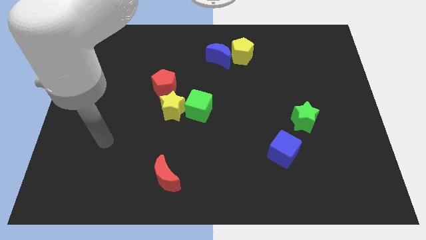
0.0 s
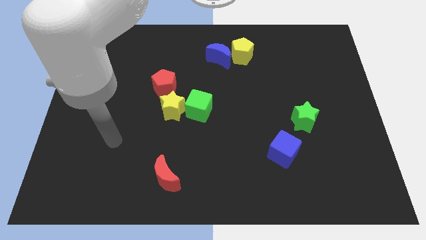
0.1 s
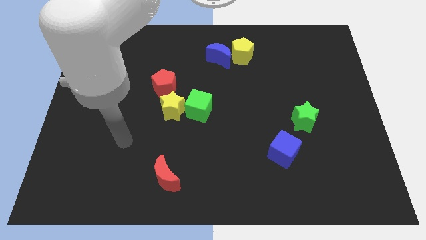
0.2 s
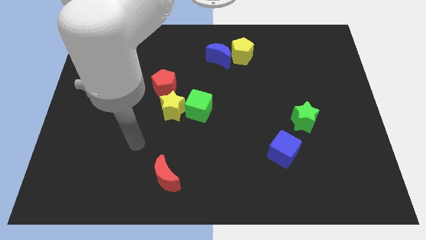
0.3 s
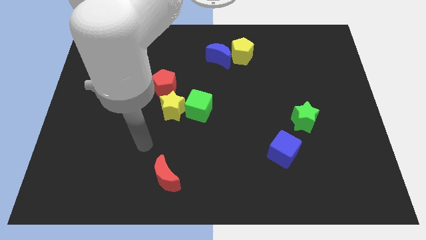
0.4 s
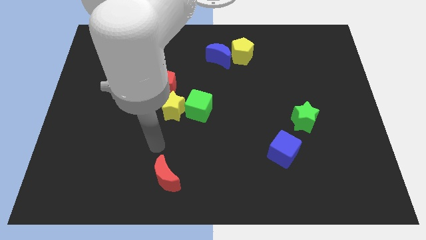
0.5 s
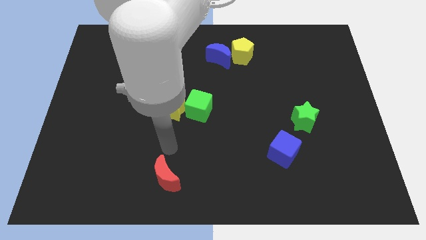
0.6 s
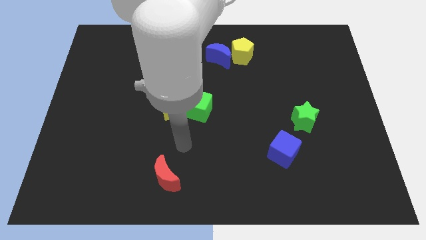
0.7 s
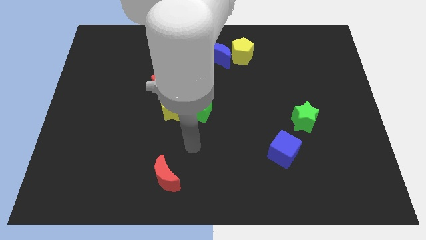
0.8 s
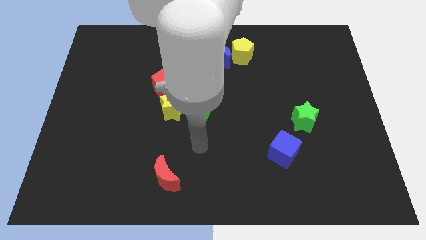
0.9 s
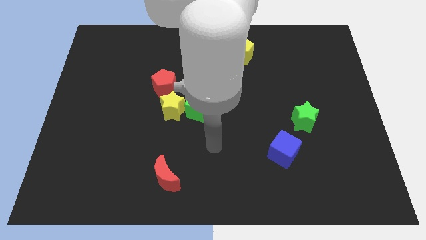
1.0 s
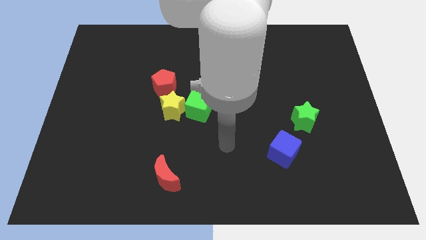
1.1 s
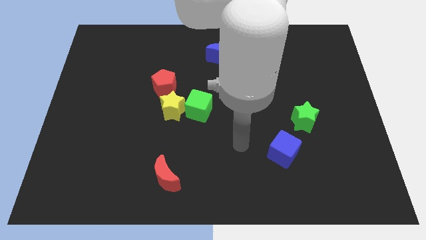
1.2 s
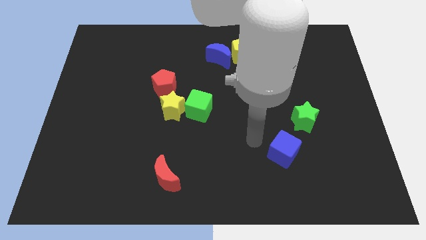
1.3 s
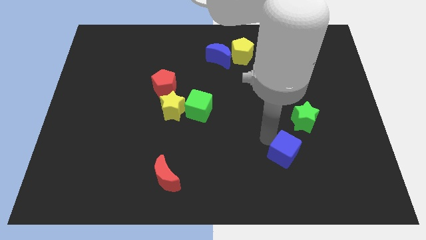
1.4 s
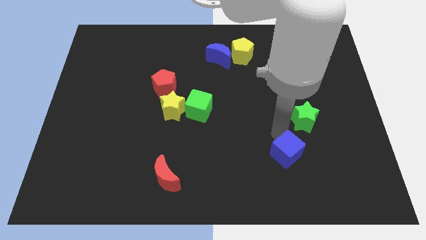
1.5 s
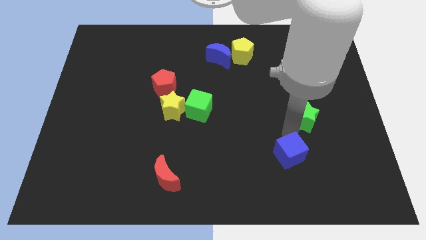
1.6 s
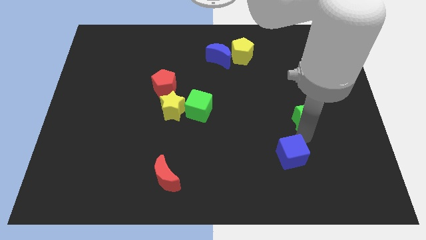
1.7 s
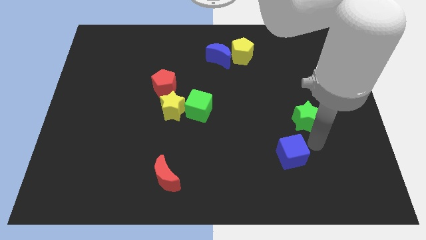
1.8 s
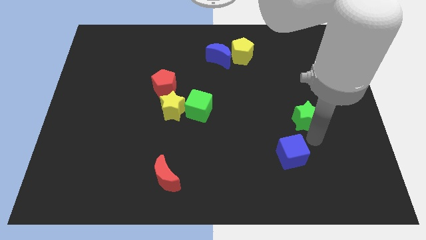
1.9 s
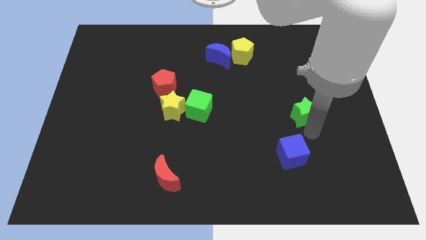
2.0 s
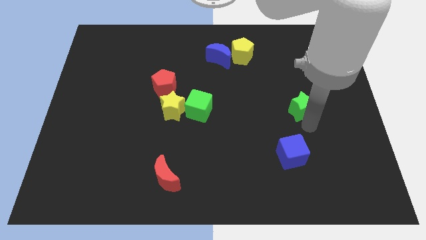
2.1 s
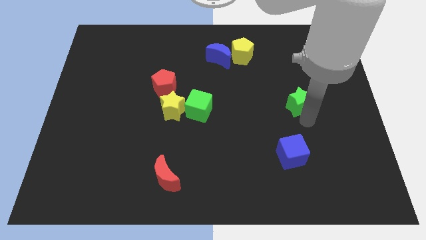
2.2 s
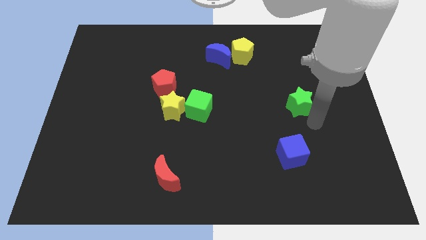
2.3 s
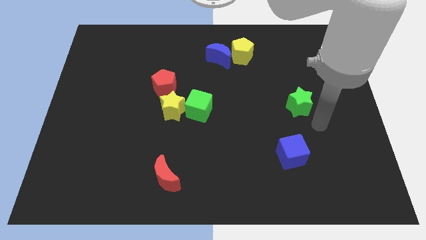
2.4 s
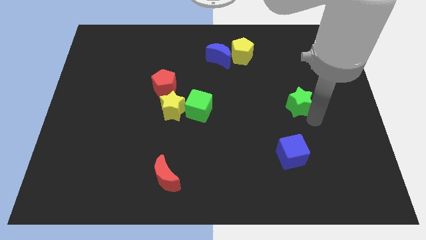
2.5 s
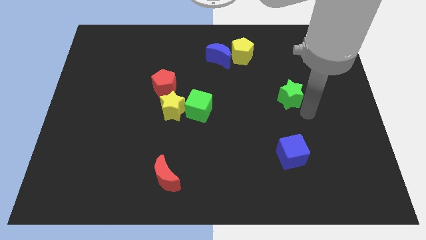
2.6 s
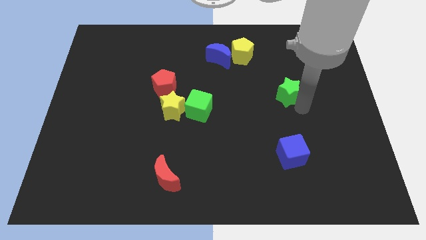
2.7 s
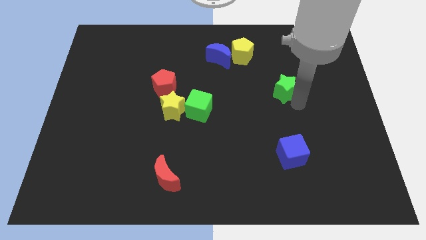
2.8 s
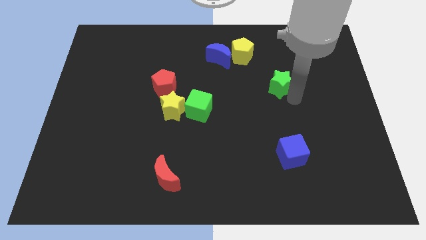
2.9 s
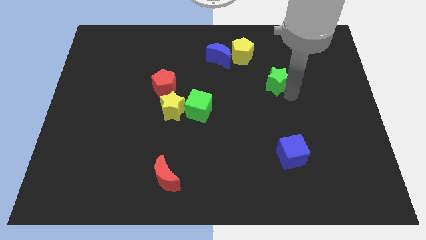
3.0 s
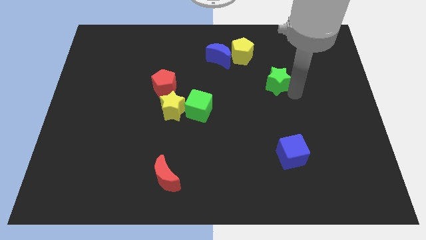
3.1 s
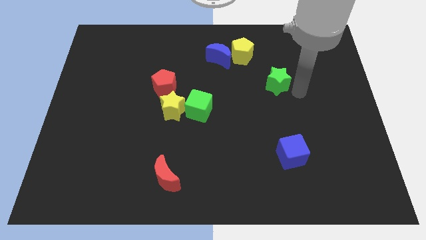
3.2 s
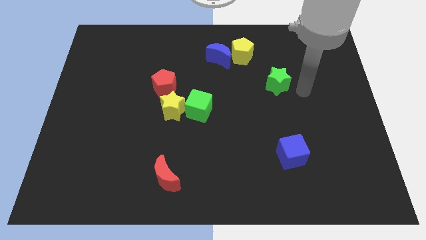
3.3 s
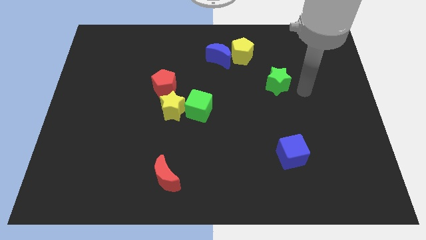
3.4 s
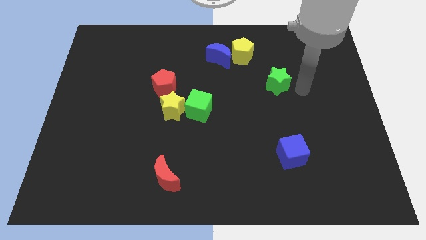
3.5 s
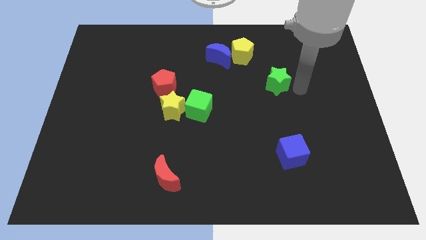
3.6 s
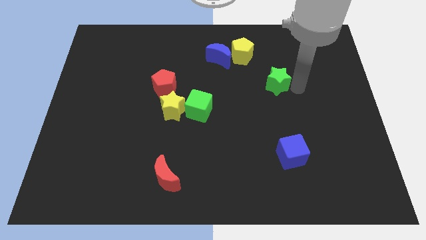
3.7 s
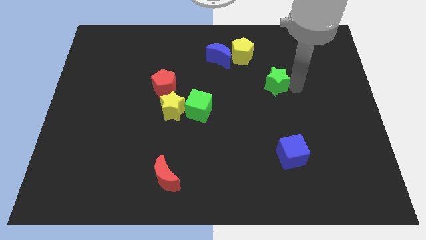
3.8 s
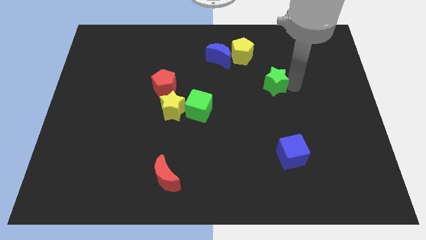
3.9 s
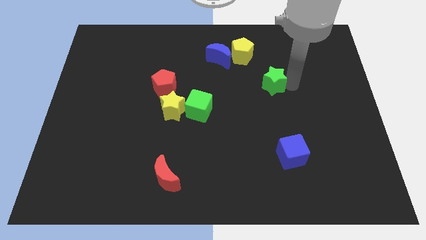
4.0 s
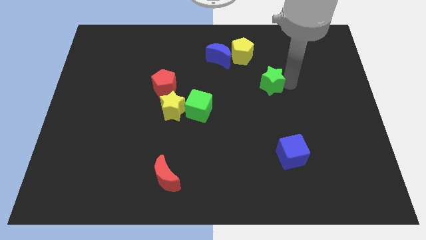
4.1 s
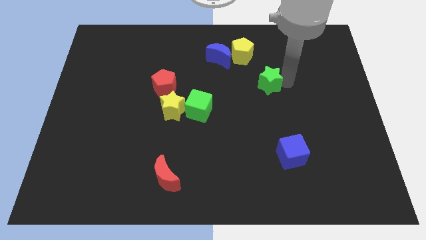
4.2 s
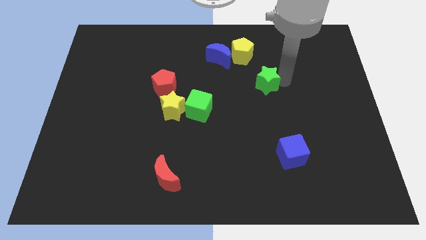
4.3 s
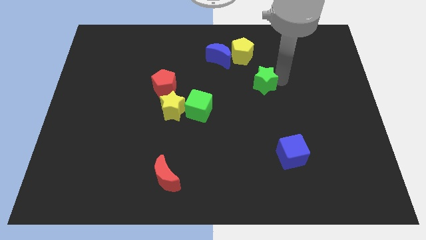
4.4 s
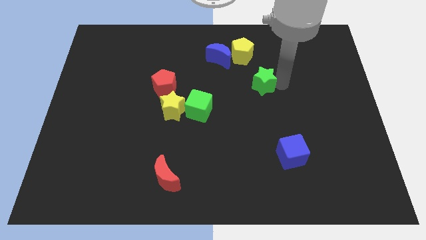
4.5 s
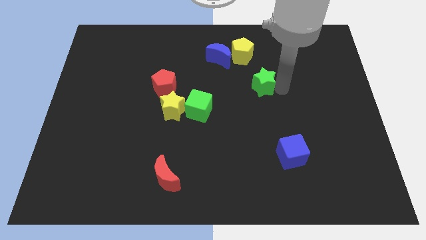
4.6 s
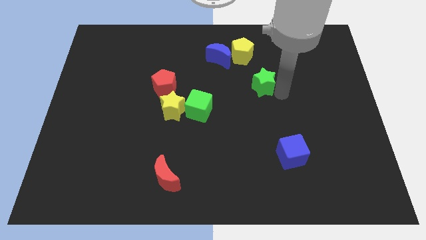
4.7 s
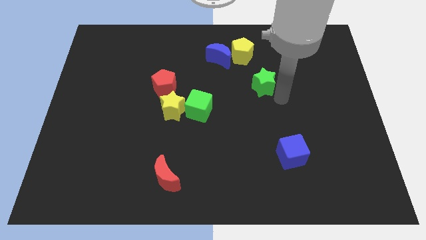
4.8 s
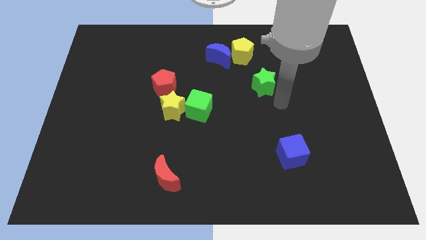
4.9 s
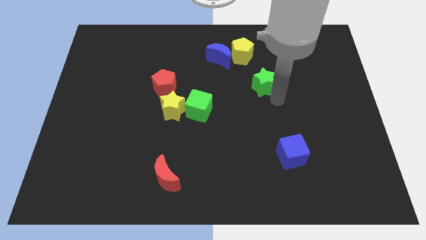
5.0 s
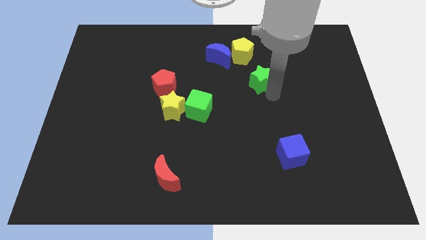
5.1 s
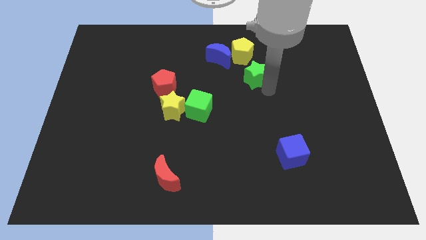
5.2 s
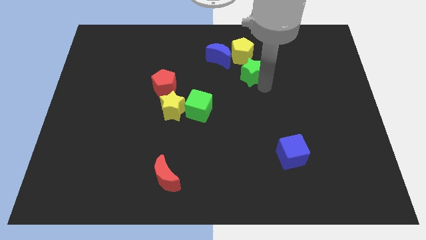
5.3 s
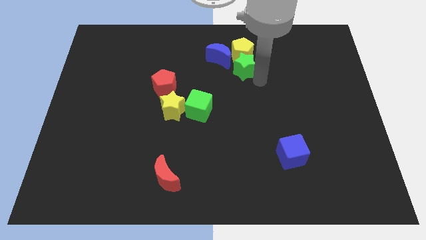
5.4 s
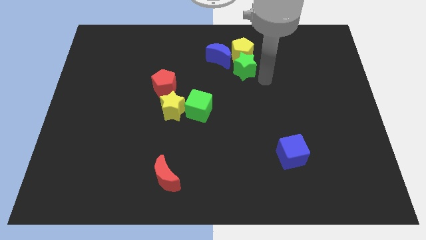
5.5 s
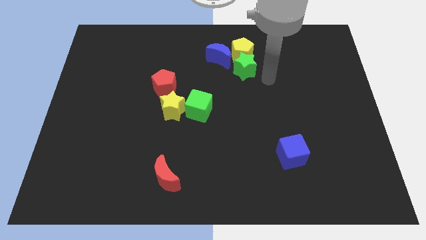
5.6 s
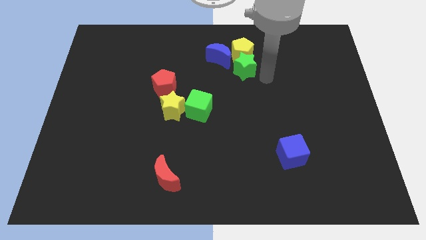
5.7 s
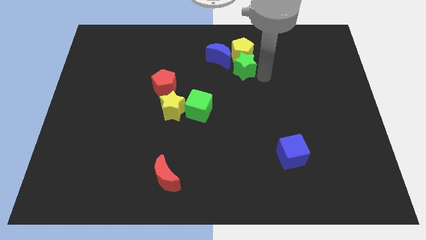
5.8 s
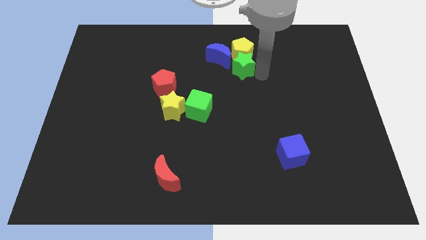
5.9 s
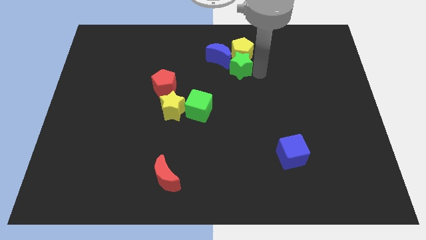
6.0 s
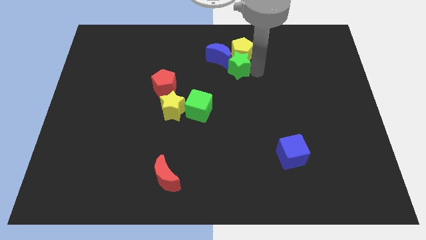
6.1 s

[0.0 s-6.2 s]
move the green star next to the blue moon

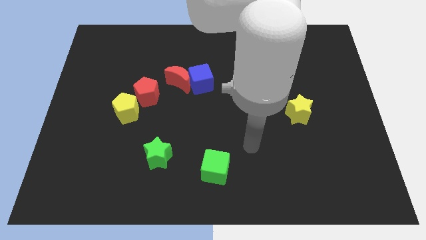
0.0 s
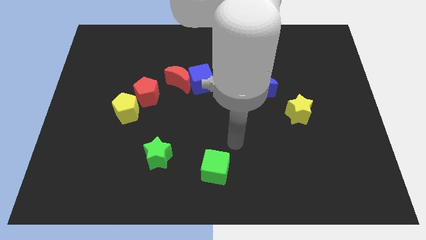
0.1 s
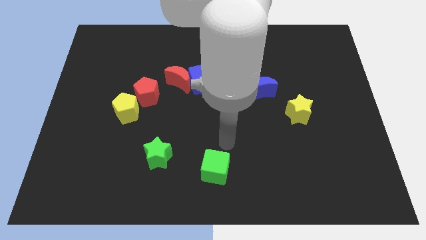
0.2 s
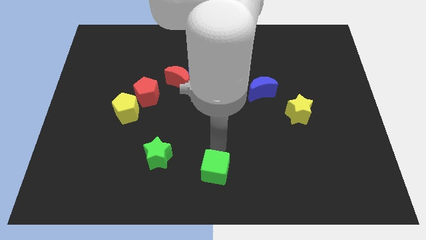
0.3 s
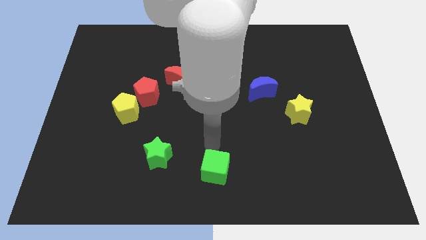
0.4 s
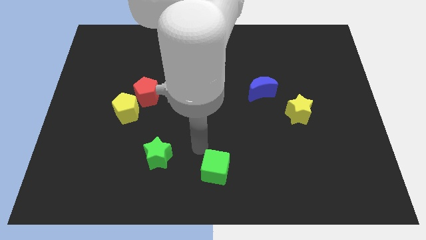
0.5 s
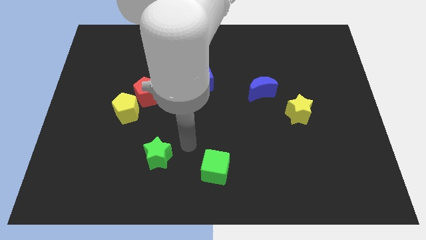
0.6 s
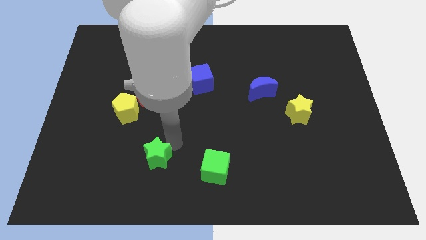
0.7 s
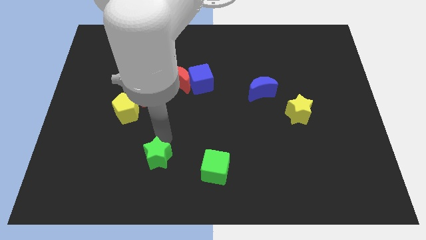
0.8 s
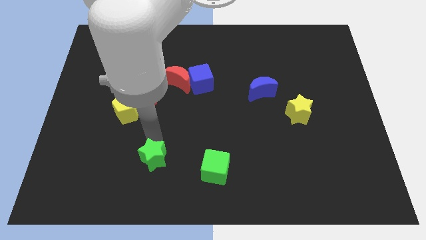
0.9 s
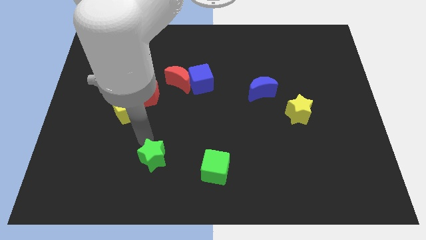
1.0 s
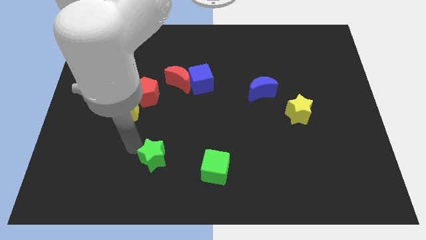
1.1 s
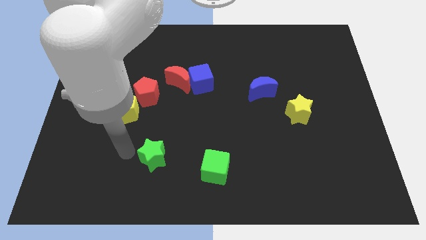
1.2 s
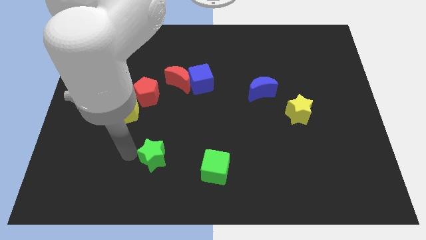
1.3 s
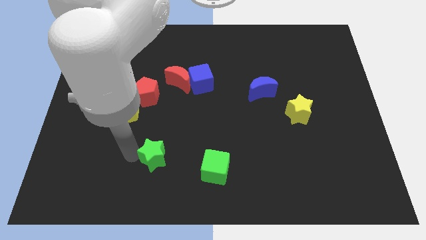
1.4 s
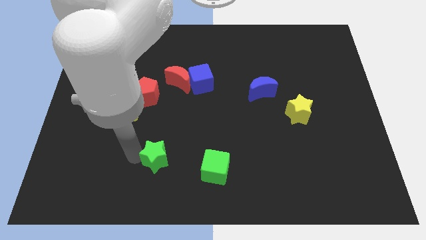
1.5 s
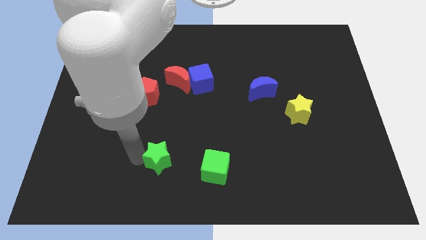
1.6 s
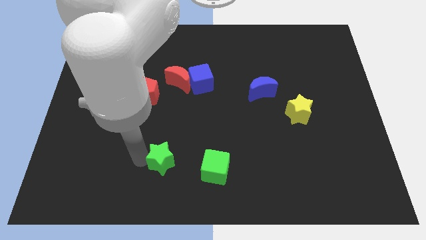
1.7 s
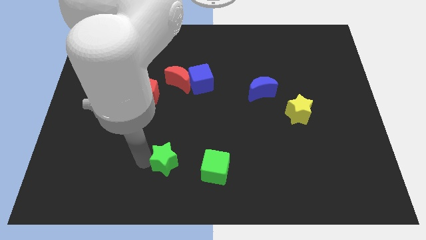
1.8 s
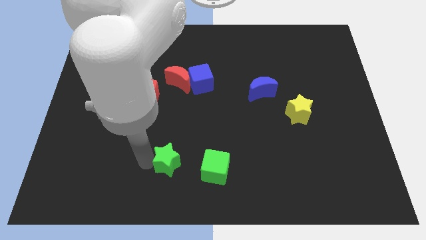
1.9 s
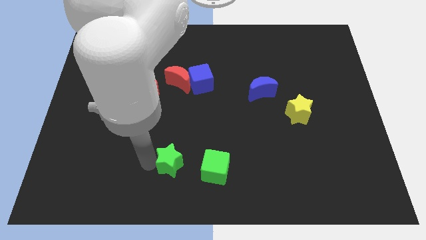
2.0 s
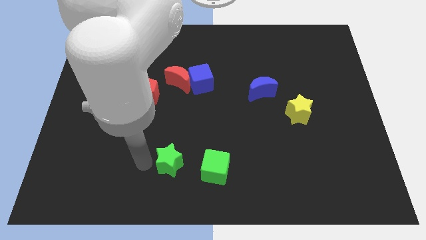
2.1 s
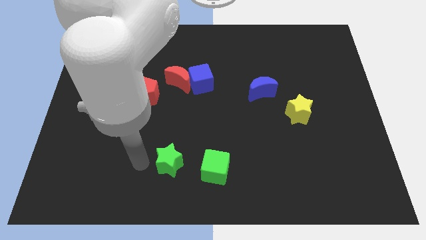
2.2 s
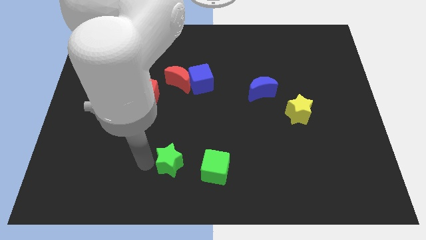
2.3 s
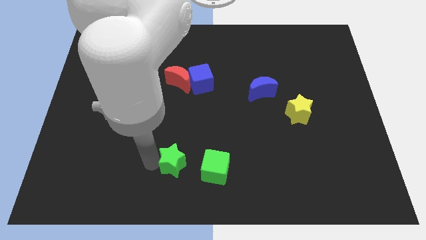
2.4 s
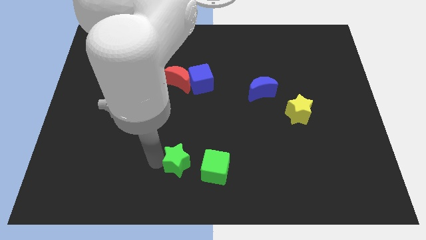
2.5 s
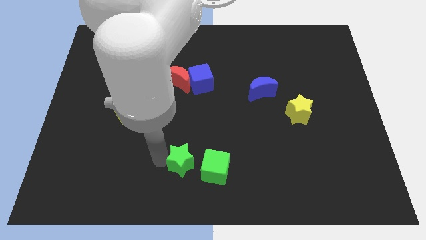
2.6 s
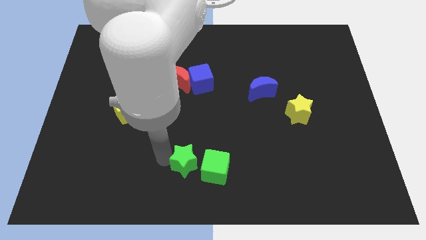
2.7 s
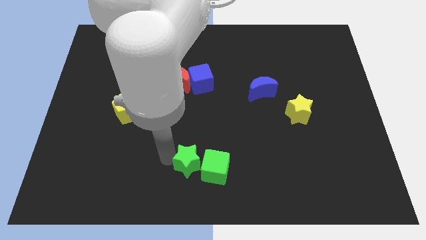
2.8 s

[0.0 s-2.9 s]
move the green star to the green cube
